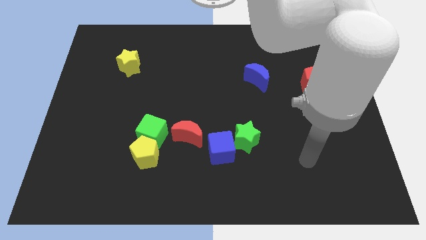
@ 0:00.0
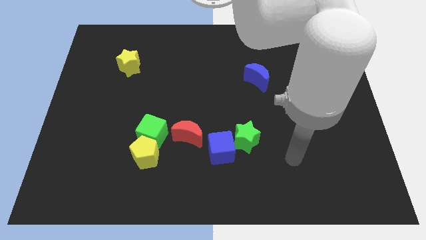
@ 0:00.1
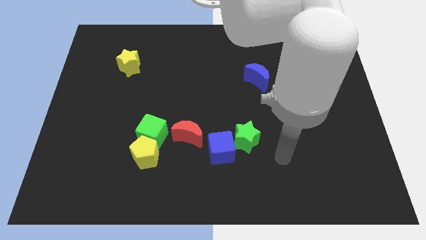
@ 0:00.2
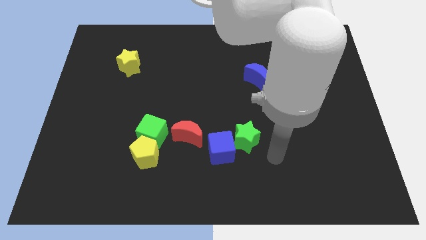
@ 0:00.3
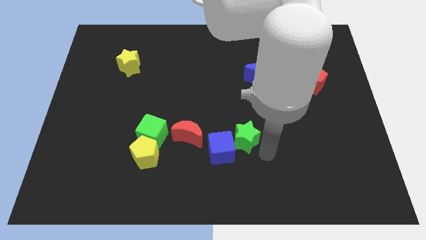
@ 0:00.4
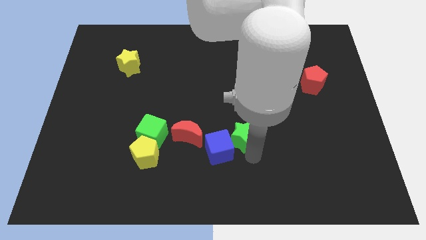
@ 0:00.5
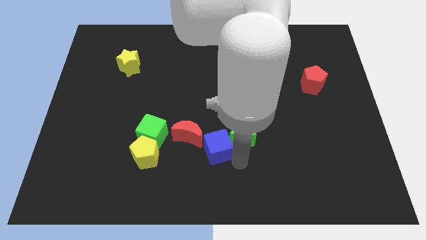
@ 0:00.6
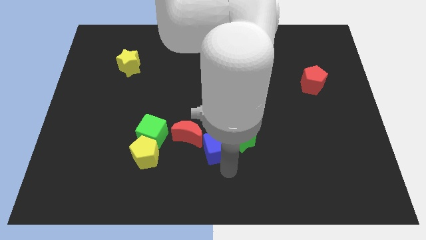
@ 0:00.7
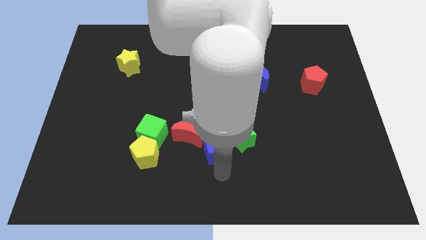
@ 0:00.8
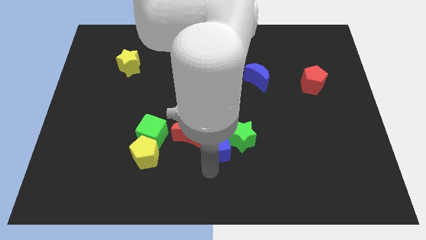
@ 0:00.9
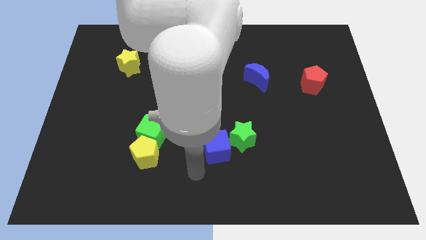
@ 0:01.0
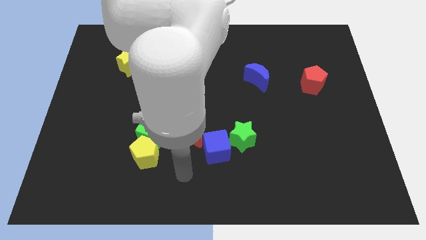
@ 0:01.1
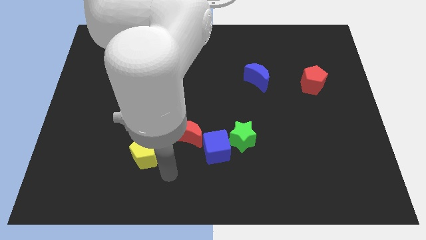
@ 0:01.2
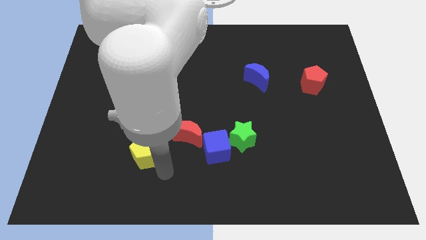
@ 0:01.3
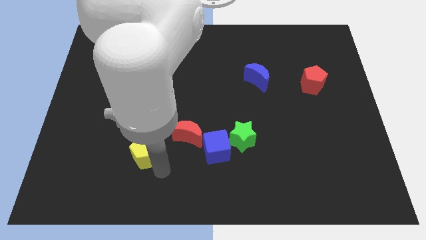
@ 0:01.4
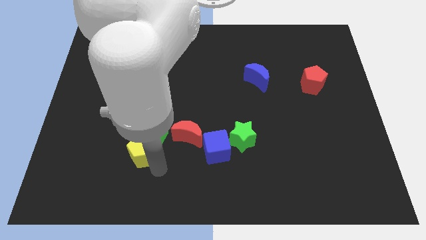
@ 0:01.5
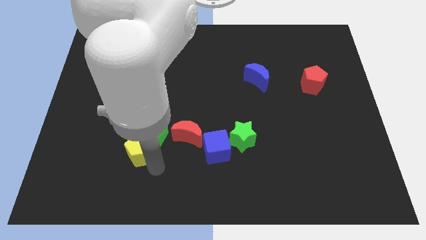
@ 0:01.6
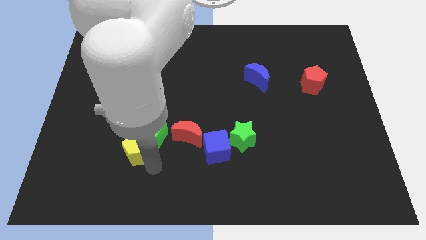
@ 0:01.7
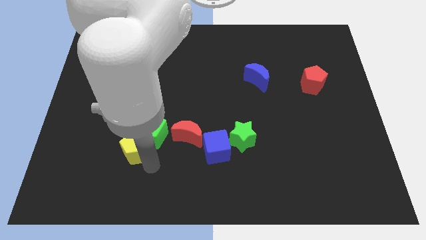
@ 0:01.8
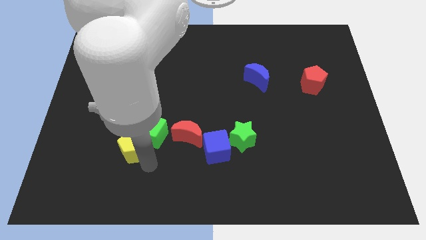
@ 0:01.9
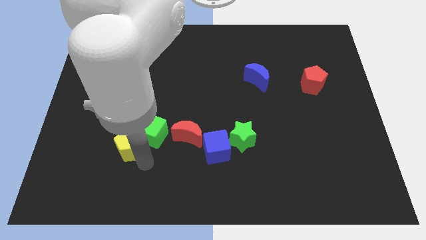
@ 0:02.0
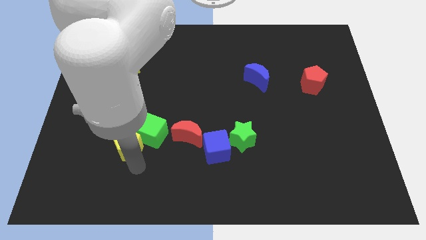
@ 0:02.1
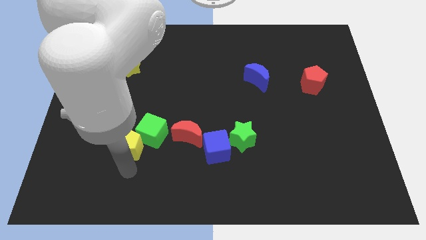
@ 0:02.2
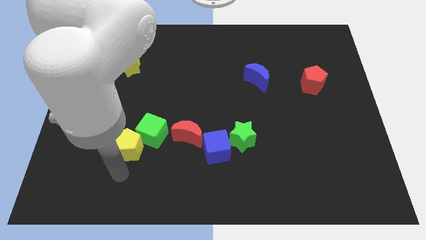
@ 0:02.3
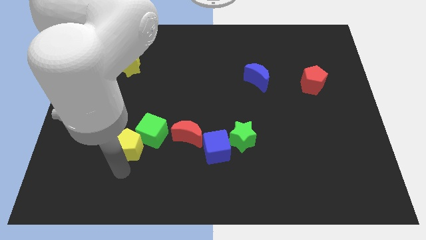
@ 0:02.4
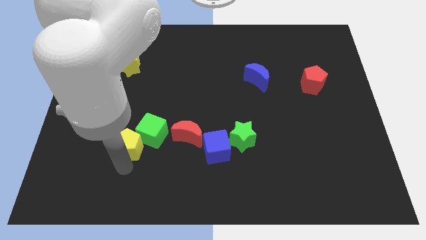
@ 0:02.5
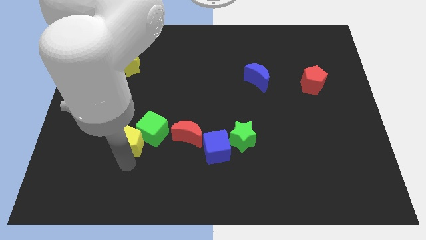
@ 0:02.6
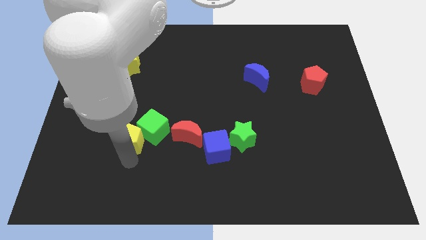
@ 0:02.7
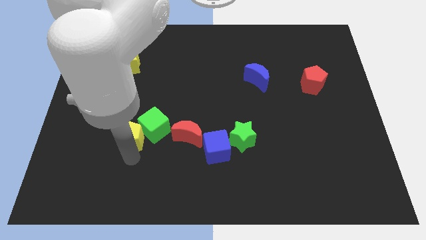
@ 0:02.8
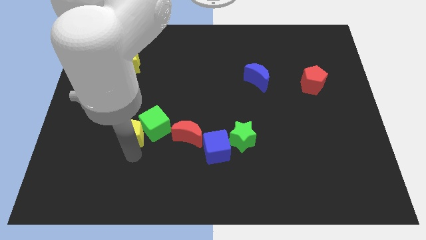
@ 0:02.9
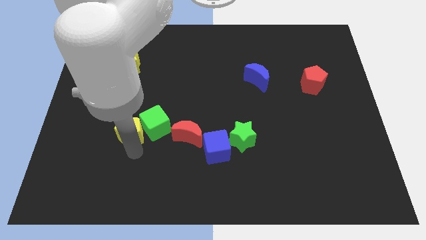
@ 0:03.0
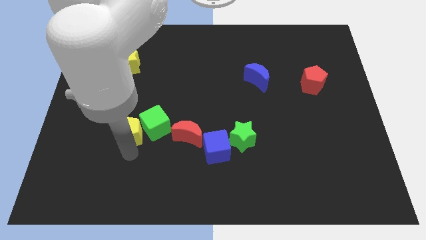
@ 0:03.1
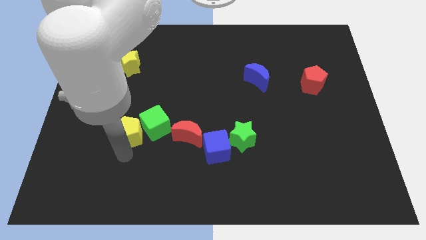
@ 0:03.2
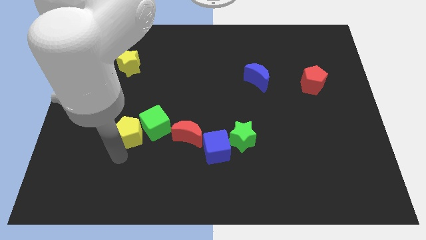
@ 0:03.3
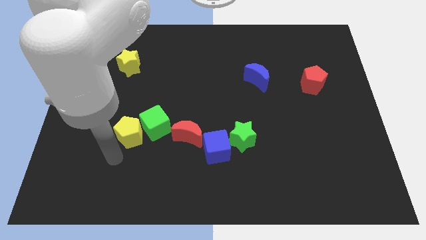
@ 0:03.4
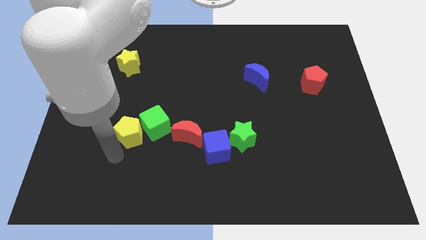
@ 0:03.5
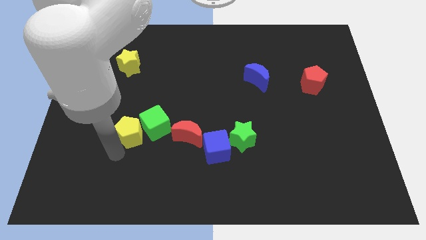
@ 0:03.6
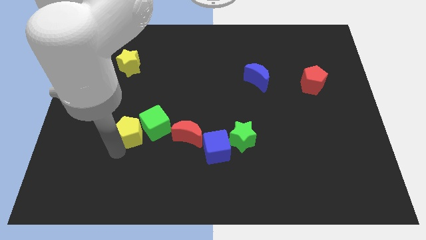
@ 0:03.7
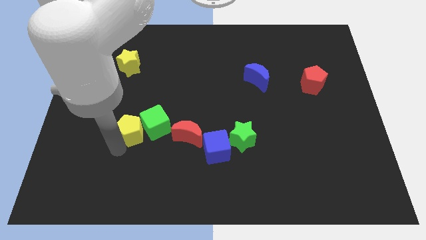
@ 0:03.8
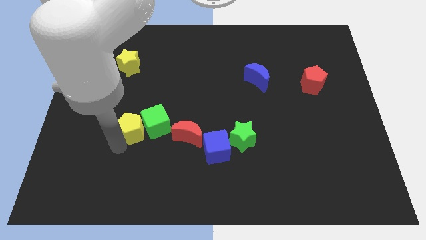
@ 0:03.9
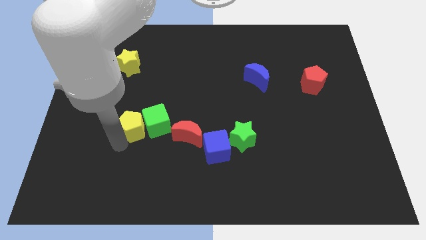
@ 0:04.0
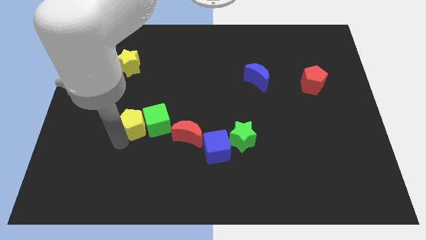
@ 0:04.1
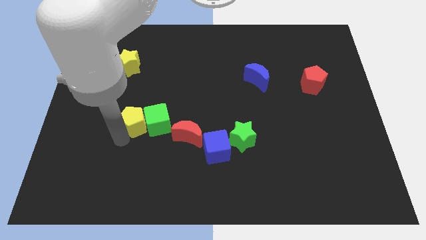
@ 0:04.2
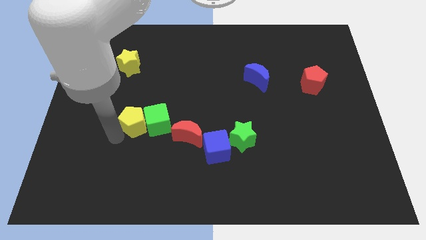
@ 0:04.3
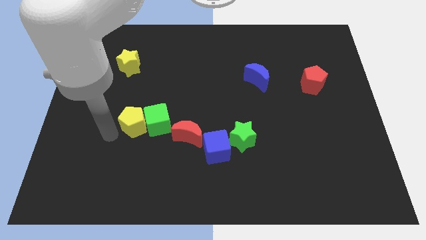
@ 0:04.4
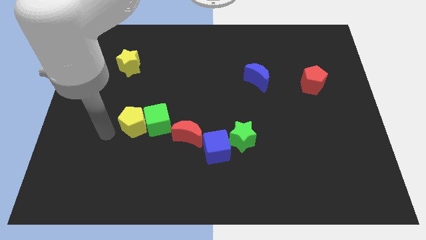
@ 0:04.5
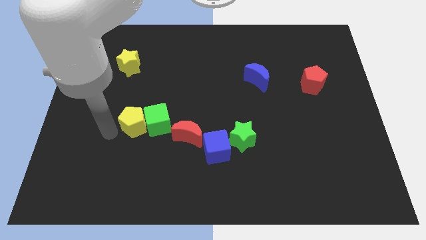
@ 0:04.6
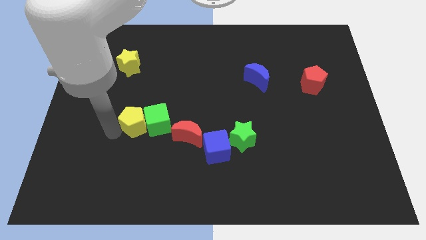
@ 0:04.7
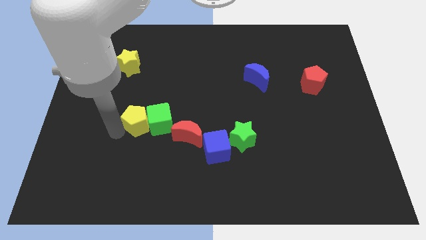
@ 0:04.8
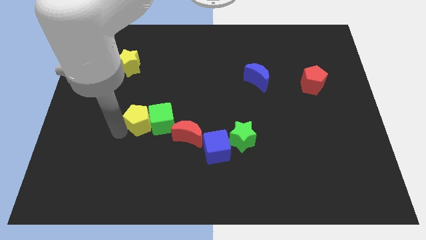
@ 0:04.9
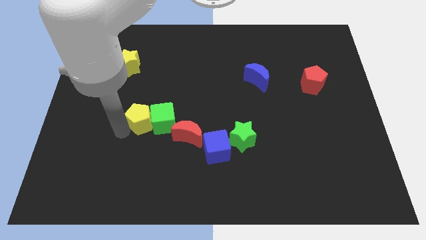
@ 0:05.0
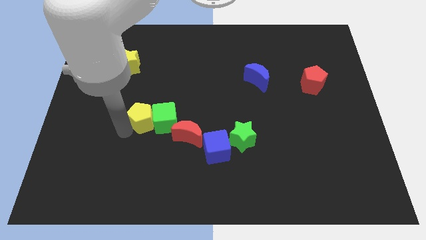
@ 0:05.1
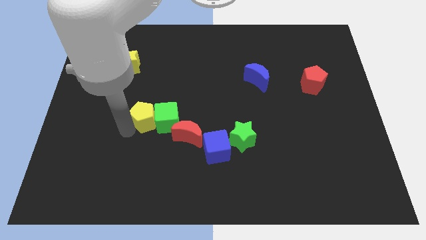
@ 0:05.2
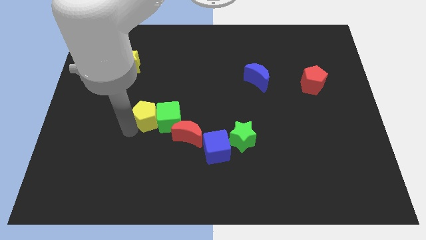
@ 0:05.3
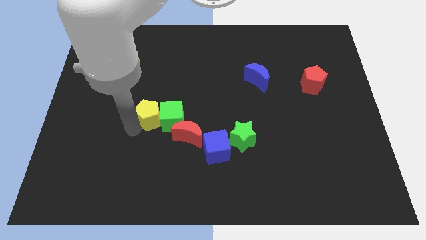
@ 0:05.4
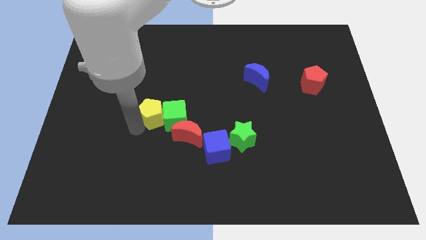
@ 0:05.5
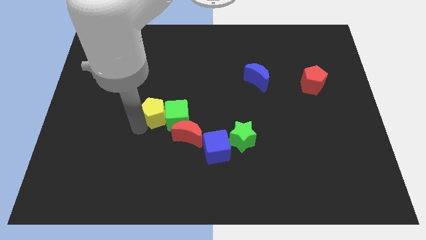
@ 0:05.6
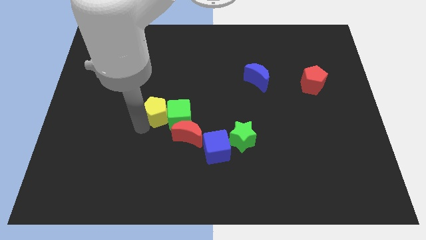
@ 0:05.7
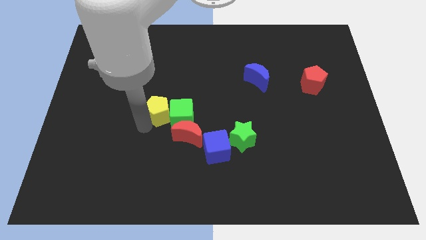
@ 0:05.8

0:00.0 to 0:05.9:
move the yellow pentagon up and to the right somewhat

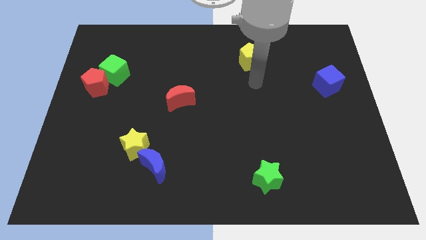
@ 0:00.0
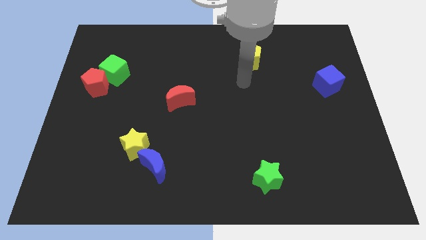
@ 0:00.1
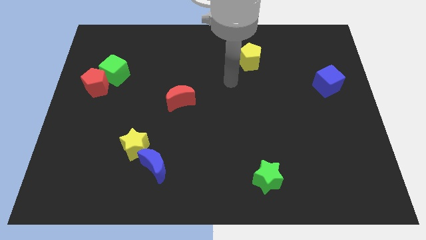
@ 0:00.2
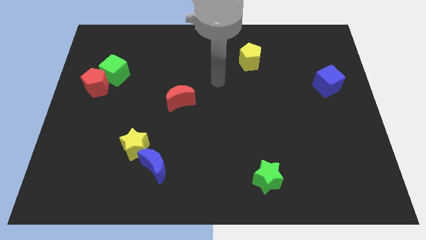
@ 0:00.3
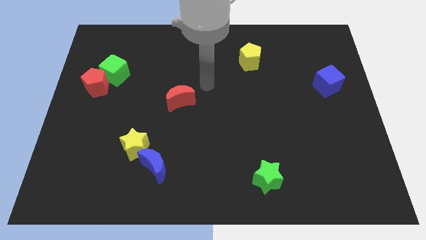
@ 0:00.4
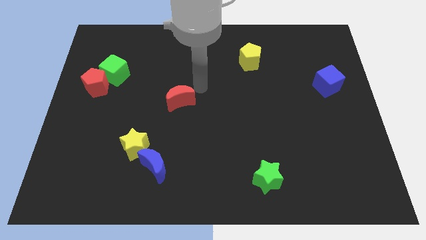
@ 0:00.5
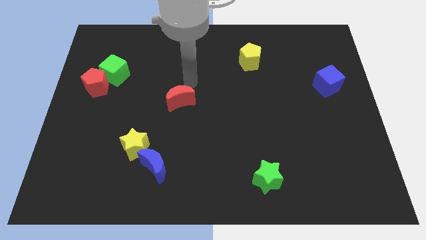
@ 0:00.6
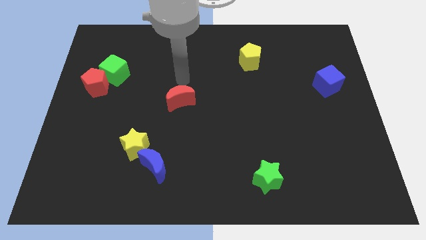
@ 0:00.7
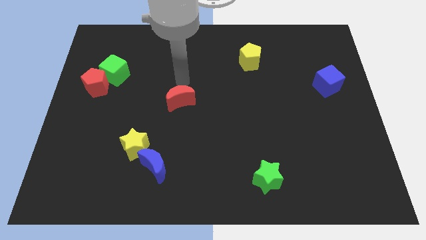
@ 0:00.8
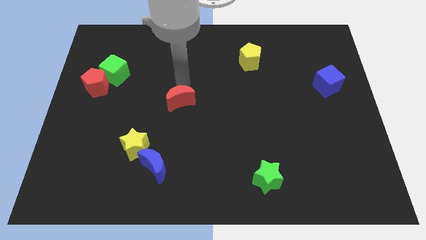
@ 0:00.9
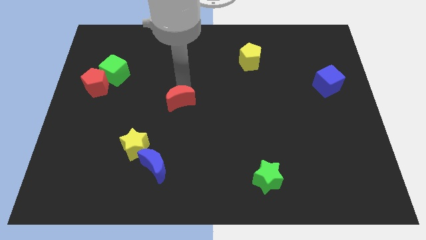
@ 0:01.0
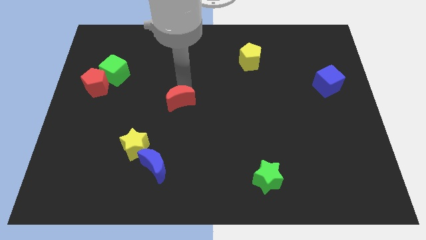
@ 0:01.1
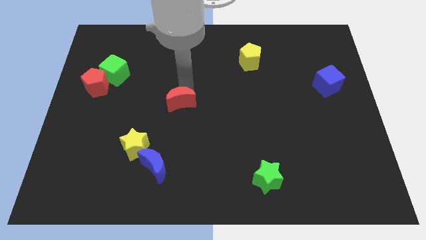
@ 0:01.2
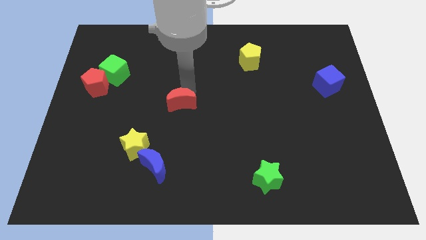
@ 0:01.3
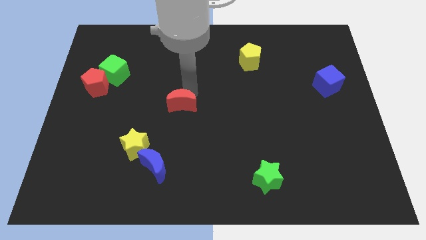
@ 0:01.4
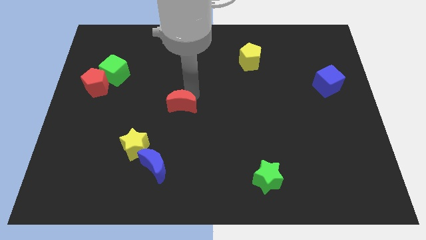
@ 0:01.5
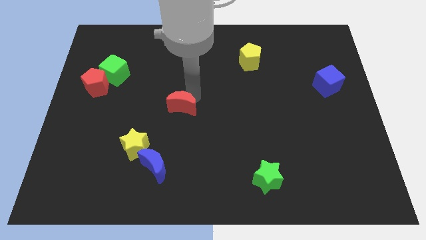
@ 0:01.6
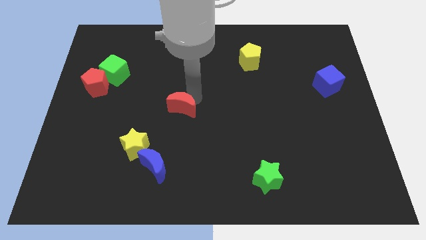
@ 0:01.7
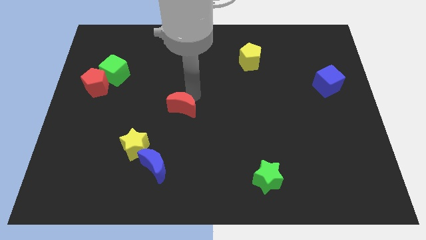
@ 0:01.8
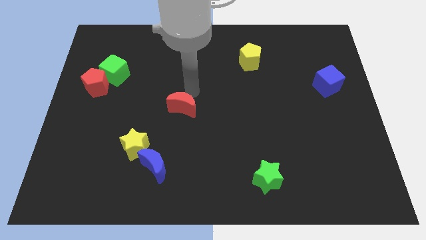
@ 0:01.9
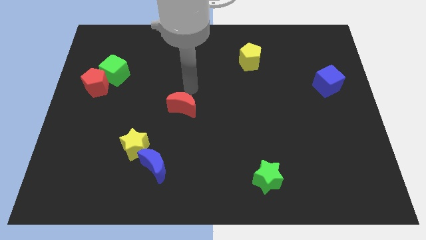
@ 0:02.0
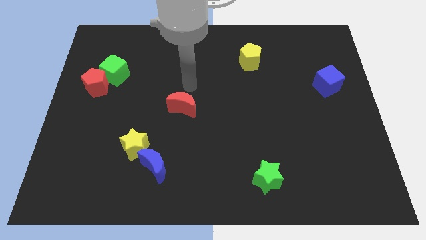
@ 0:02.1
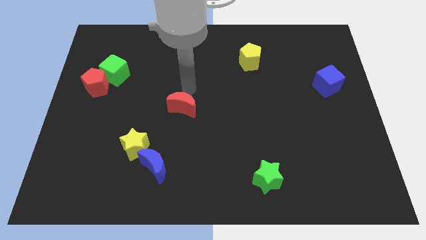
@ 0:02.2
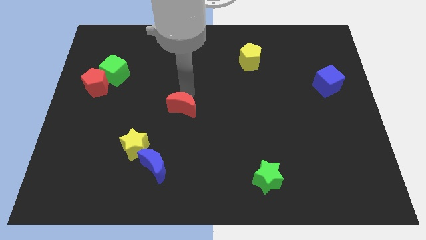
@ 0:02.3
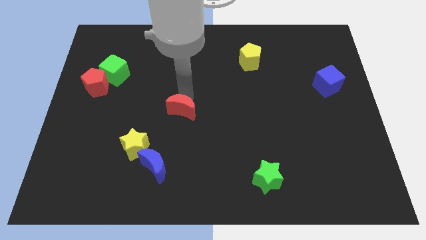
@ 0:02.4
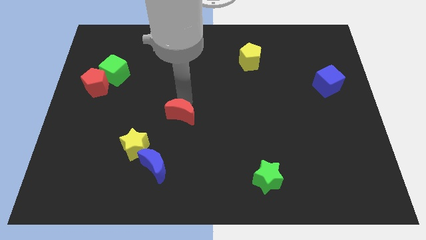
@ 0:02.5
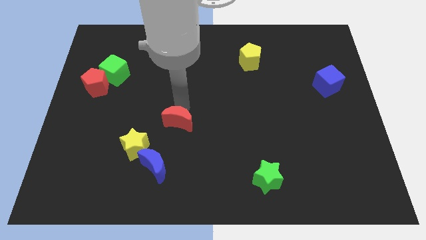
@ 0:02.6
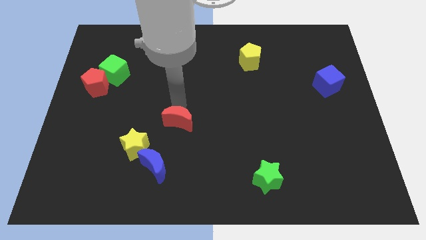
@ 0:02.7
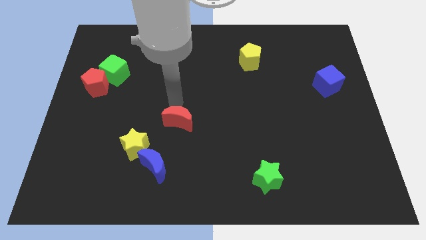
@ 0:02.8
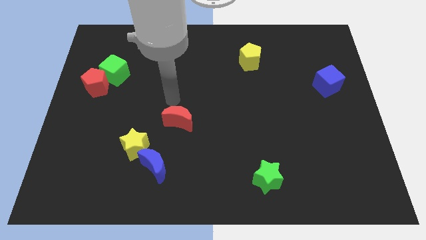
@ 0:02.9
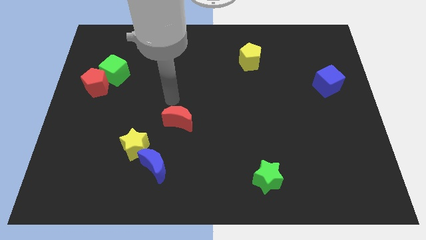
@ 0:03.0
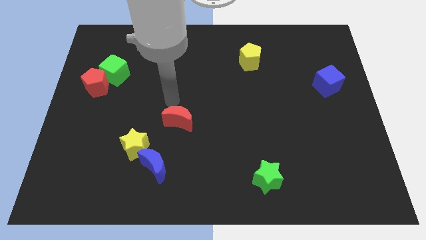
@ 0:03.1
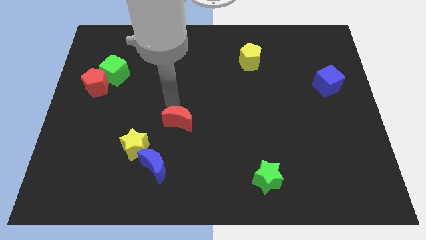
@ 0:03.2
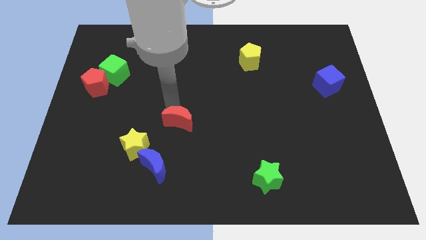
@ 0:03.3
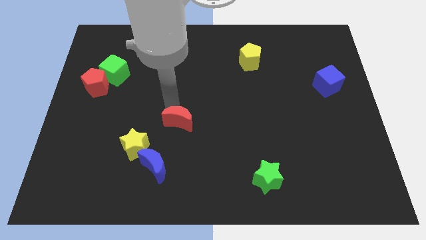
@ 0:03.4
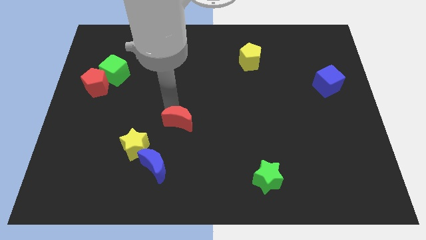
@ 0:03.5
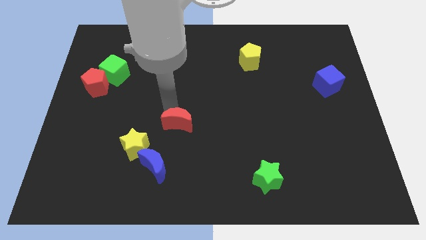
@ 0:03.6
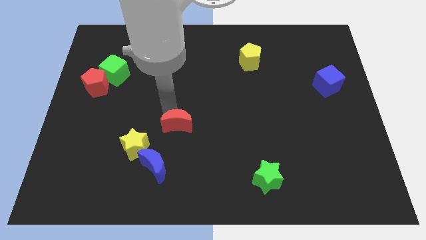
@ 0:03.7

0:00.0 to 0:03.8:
slightly push the red moon downwards
